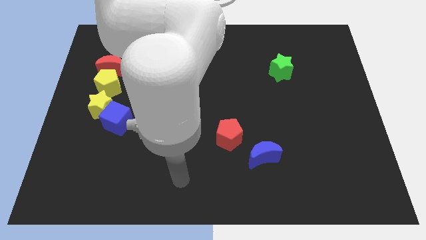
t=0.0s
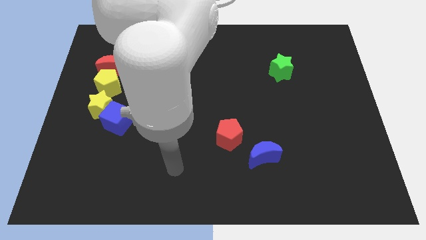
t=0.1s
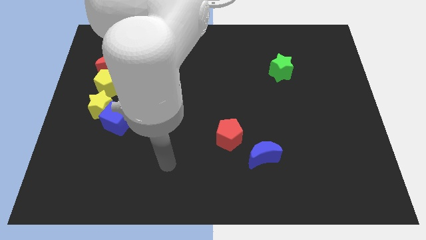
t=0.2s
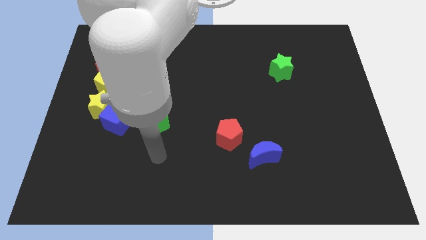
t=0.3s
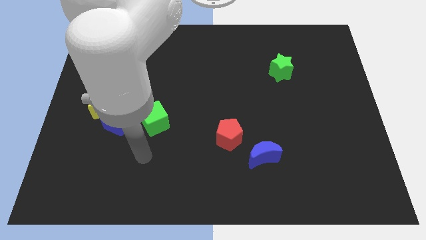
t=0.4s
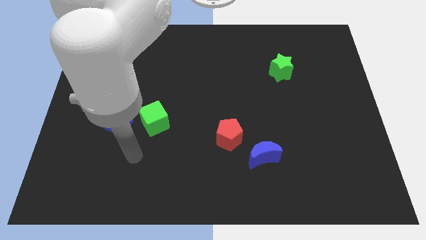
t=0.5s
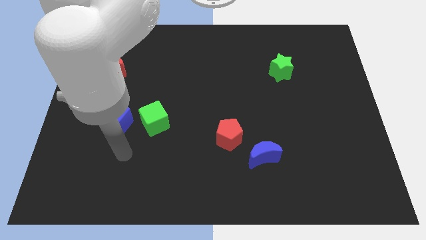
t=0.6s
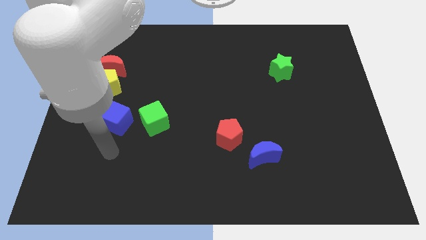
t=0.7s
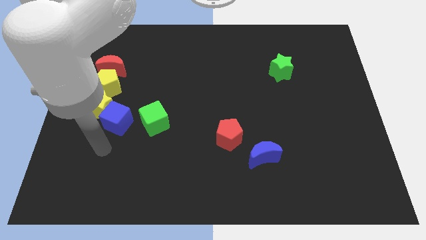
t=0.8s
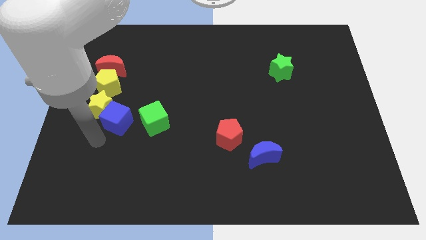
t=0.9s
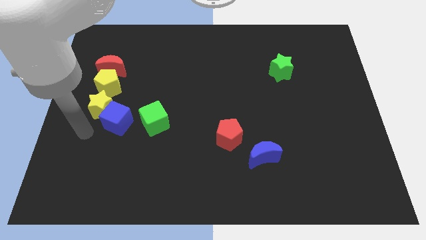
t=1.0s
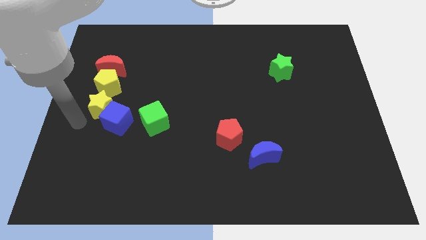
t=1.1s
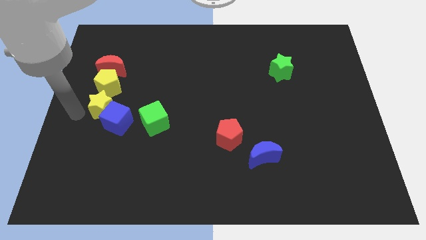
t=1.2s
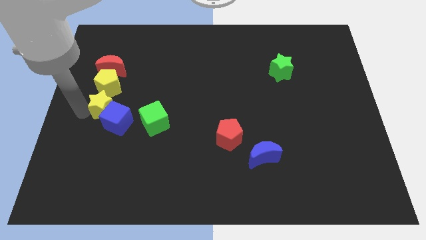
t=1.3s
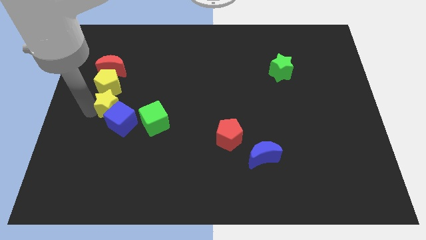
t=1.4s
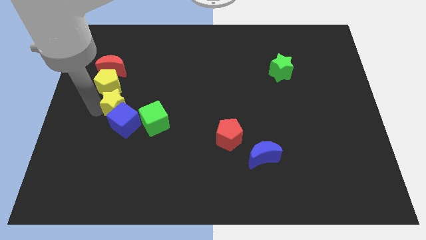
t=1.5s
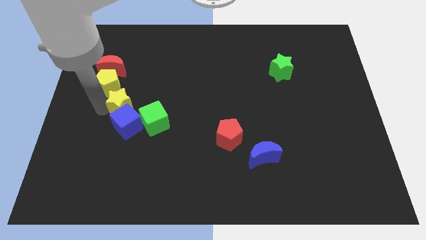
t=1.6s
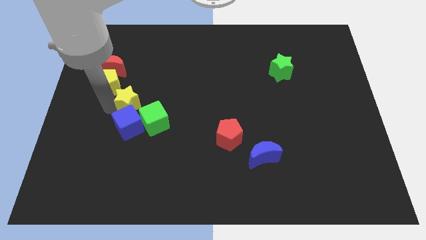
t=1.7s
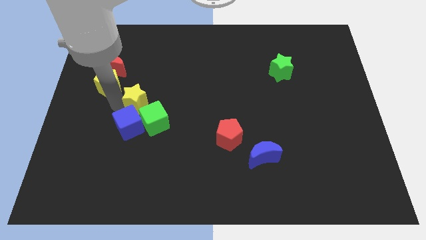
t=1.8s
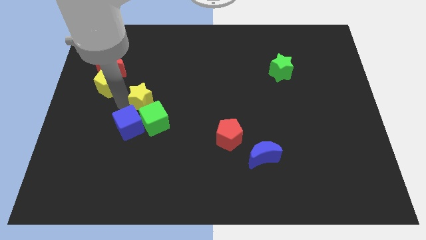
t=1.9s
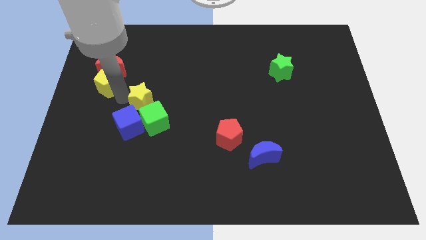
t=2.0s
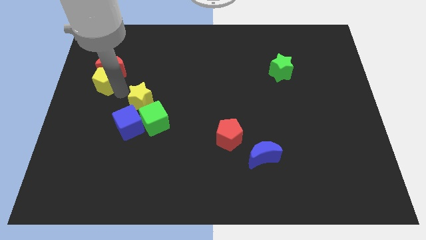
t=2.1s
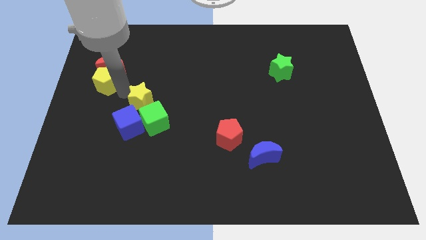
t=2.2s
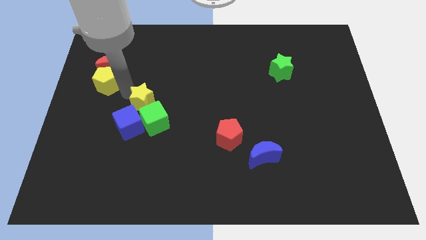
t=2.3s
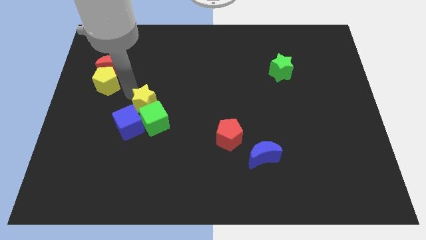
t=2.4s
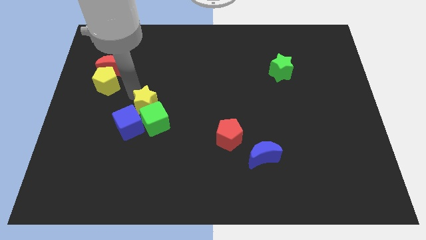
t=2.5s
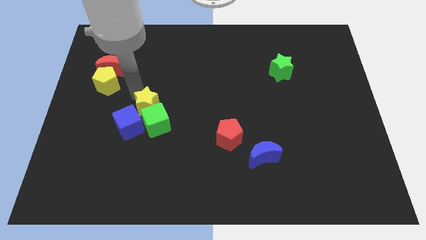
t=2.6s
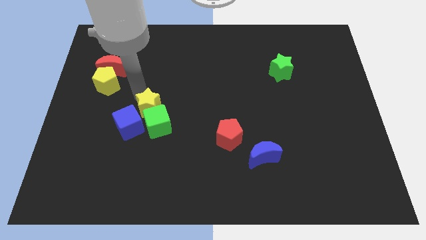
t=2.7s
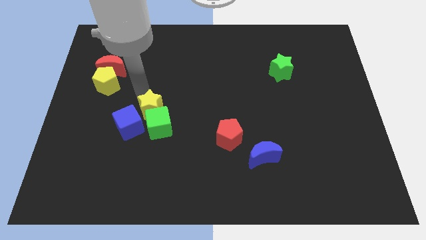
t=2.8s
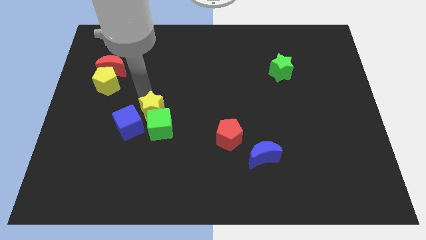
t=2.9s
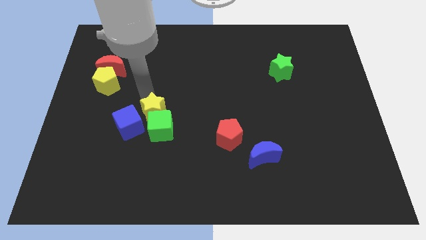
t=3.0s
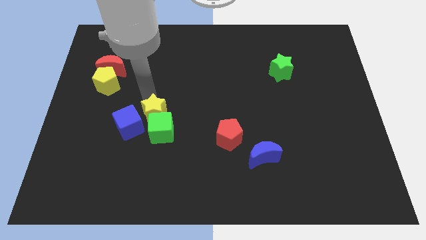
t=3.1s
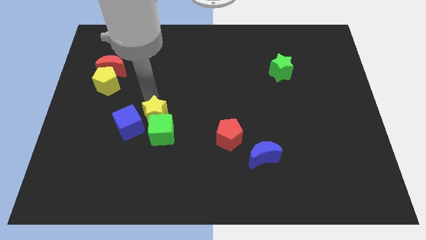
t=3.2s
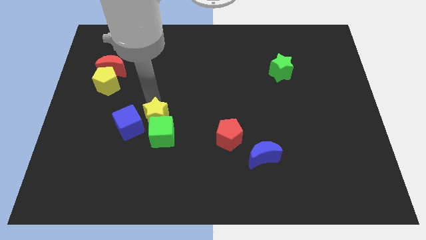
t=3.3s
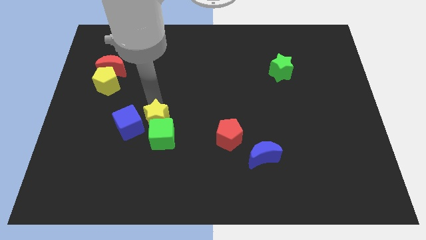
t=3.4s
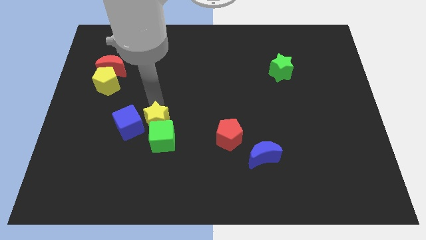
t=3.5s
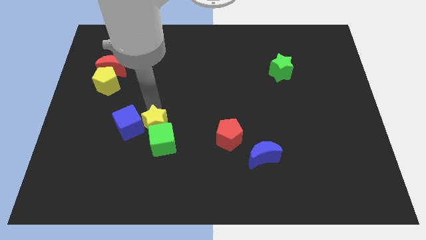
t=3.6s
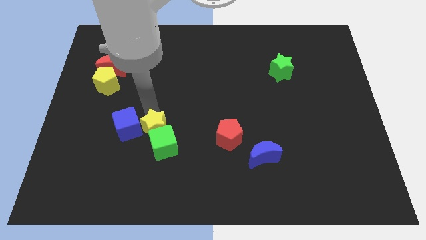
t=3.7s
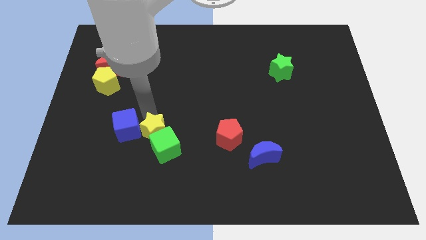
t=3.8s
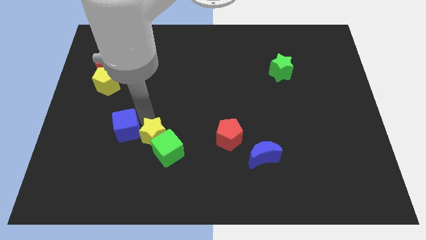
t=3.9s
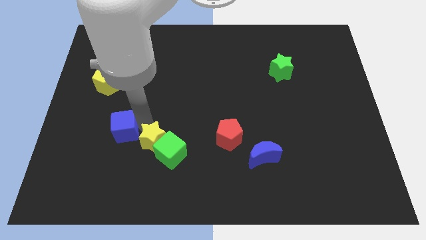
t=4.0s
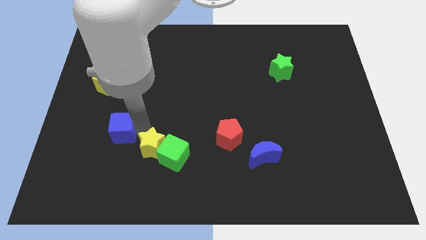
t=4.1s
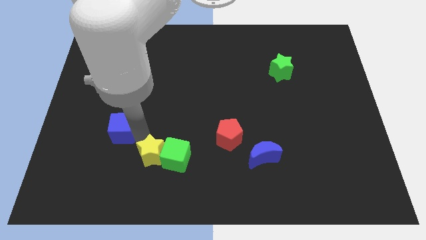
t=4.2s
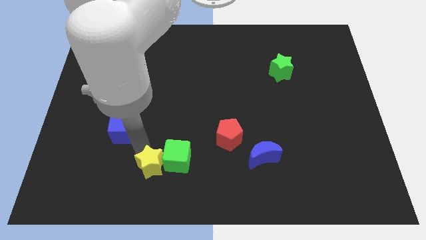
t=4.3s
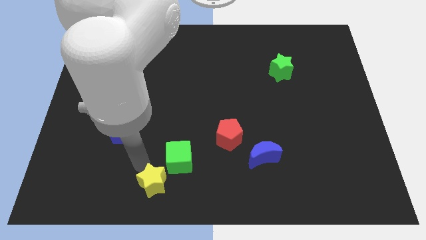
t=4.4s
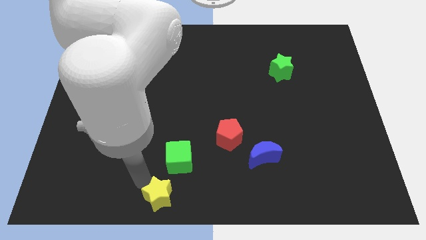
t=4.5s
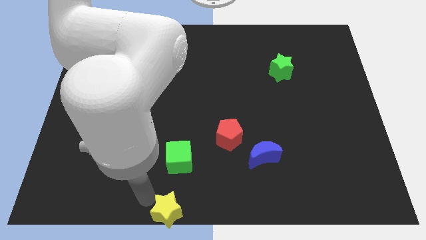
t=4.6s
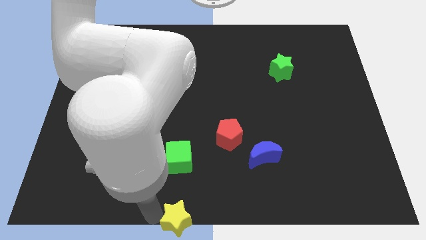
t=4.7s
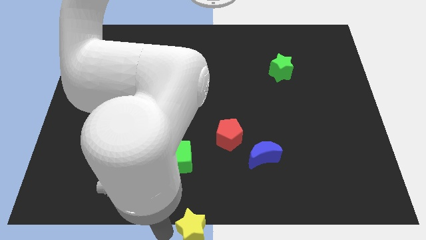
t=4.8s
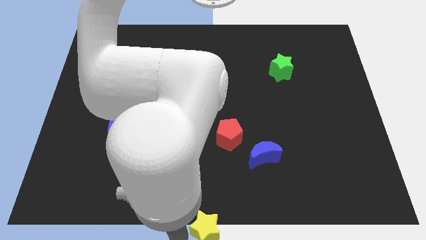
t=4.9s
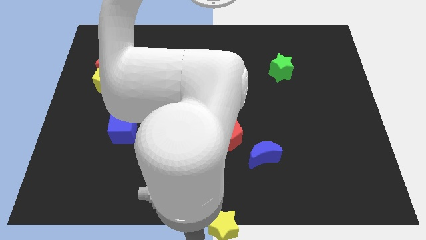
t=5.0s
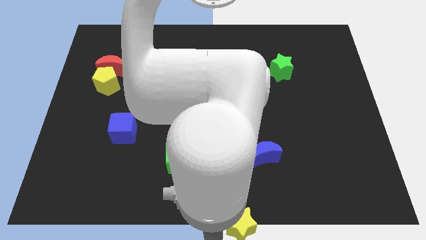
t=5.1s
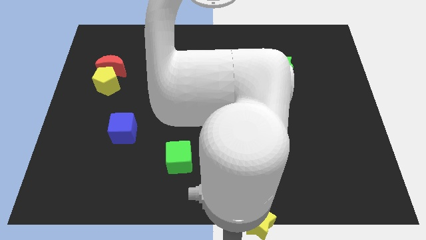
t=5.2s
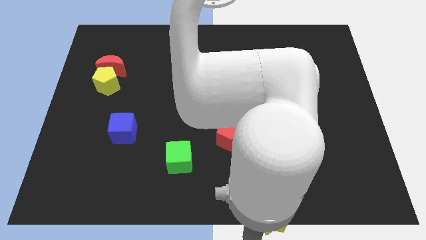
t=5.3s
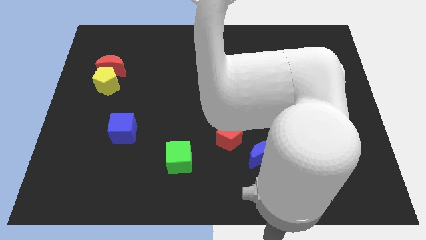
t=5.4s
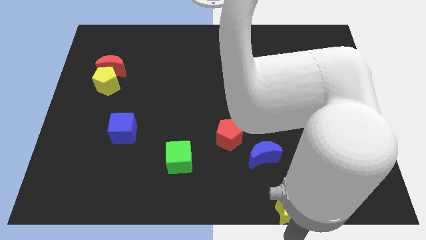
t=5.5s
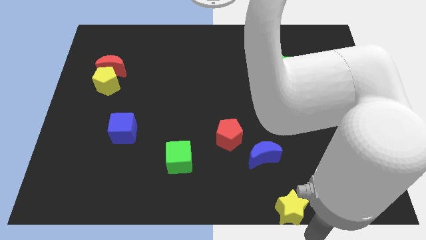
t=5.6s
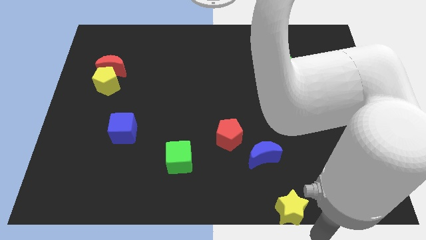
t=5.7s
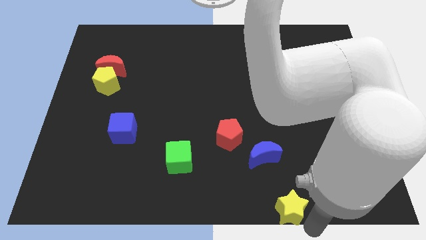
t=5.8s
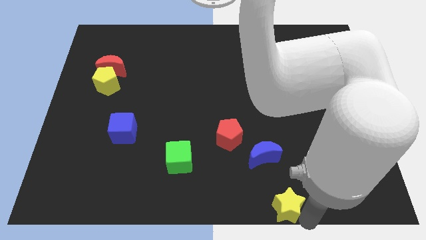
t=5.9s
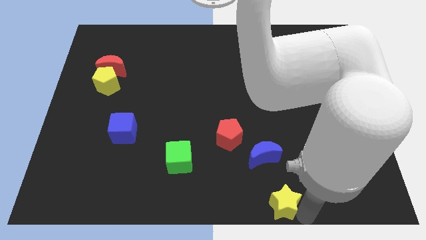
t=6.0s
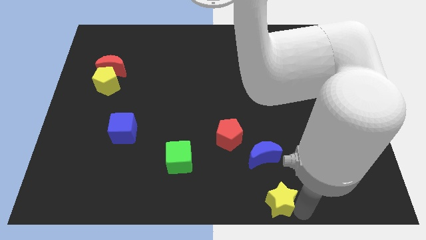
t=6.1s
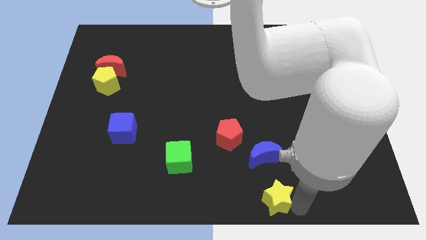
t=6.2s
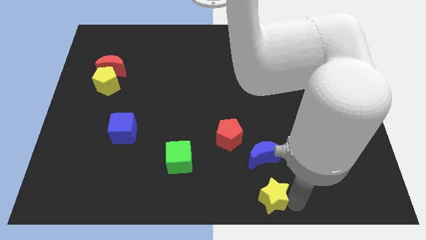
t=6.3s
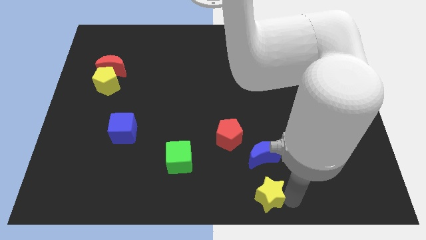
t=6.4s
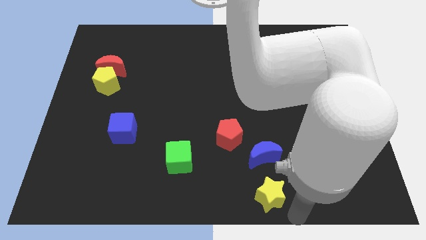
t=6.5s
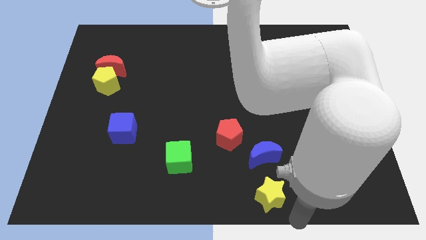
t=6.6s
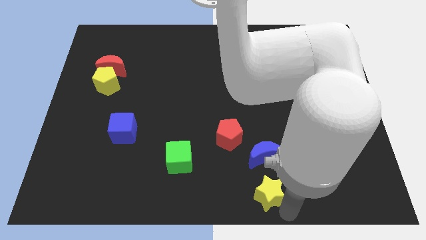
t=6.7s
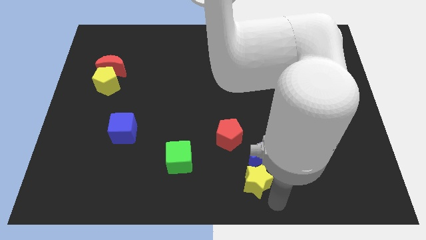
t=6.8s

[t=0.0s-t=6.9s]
push the yellow star close to the blue moon
